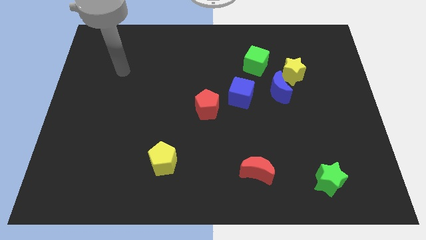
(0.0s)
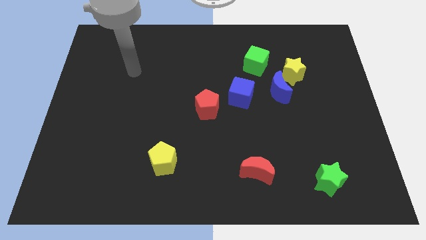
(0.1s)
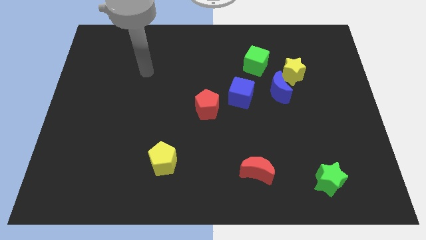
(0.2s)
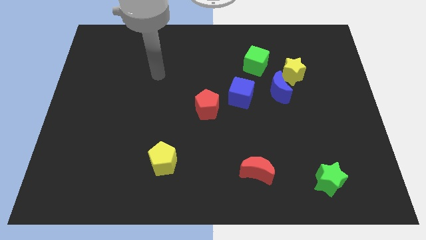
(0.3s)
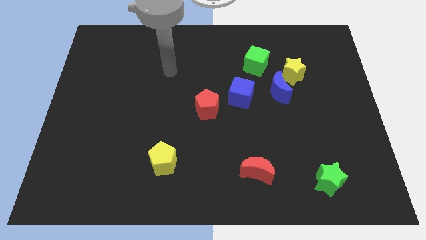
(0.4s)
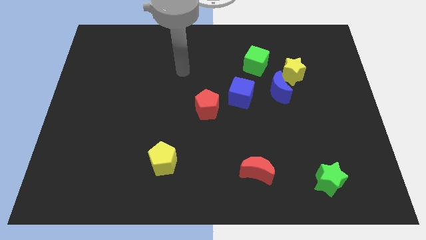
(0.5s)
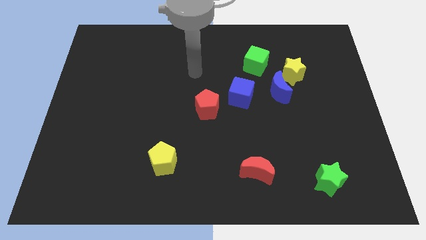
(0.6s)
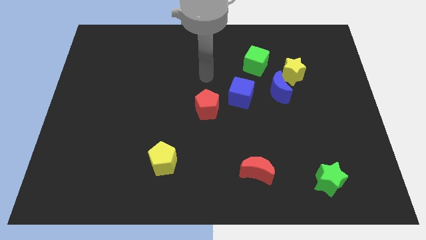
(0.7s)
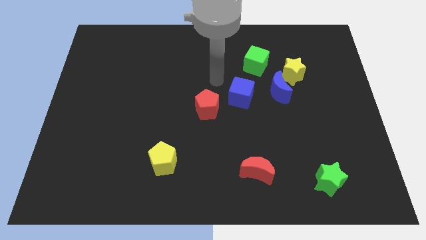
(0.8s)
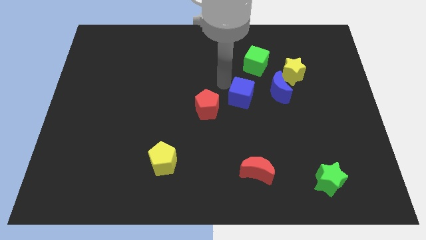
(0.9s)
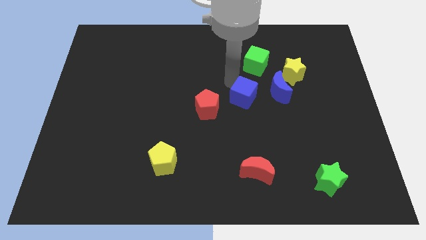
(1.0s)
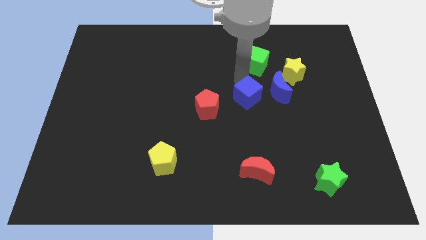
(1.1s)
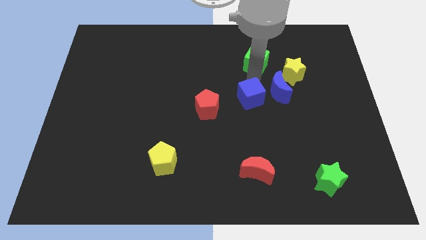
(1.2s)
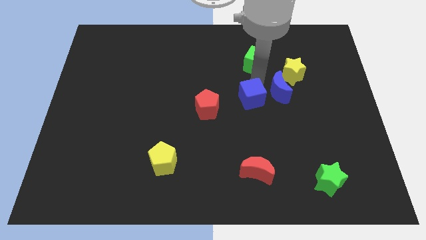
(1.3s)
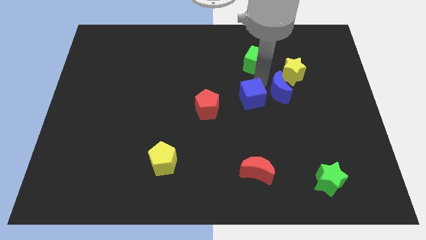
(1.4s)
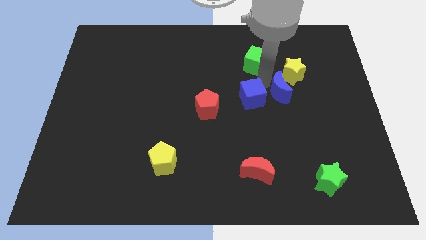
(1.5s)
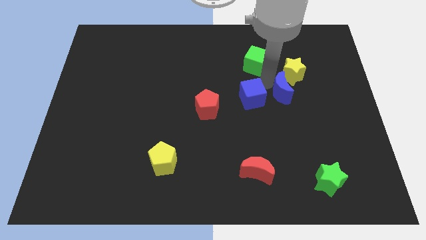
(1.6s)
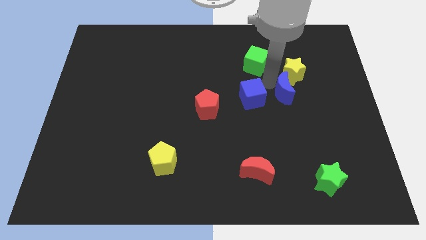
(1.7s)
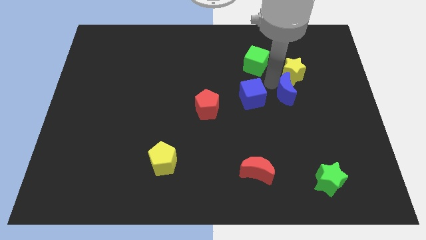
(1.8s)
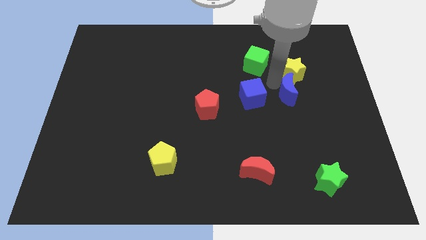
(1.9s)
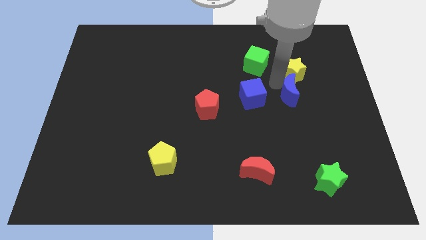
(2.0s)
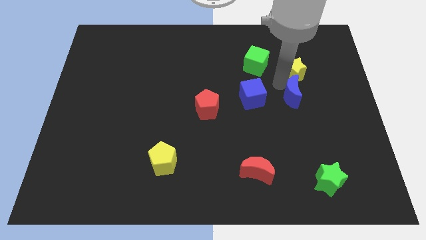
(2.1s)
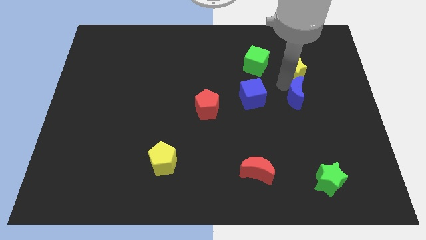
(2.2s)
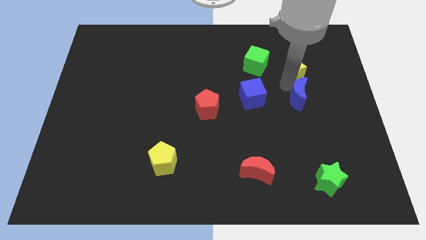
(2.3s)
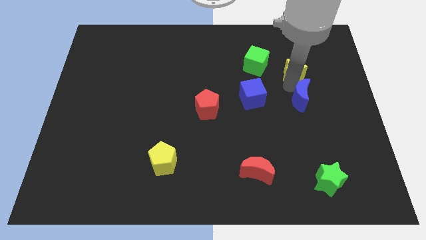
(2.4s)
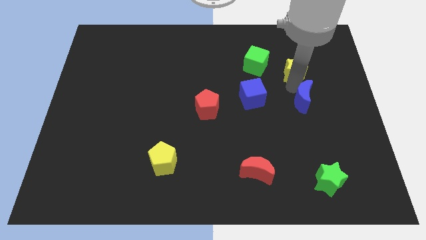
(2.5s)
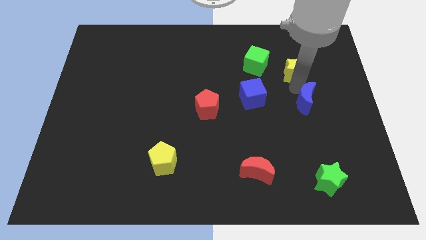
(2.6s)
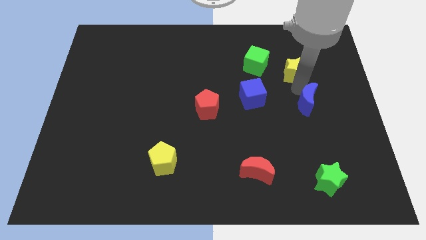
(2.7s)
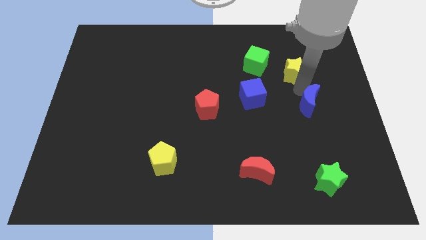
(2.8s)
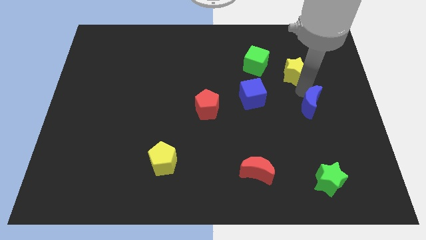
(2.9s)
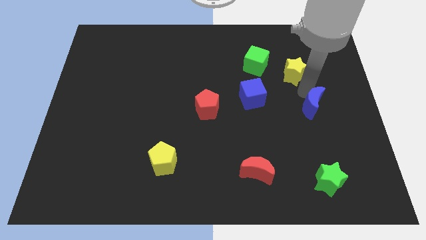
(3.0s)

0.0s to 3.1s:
pull the blue moon apart from the yellow star and blue cube

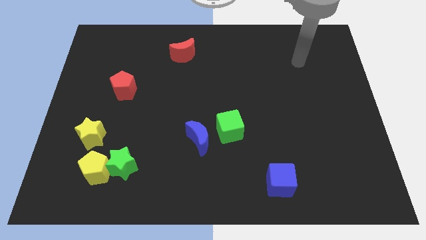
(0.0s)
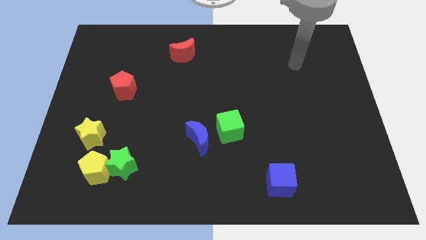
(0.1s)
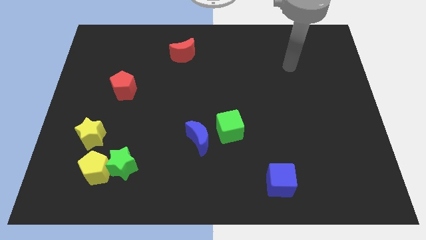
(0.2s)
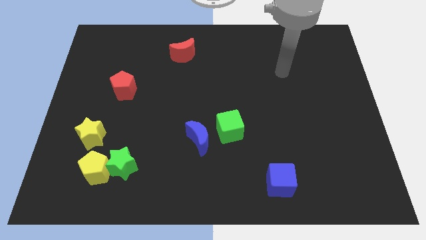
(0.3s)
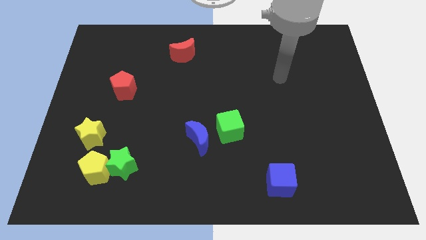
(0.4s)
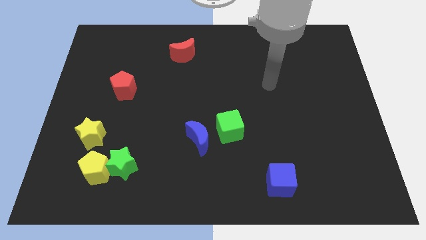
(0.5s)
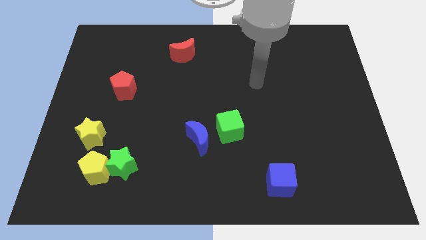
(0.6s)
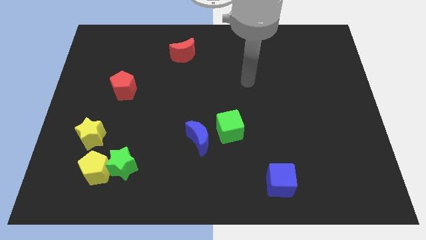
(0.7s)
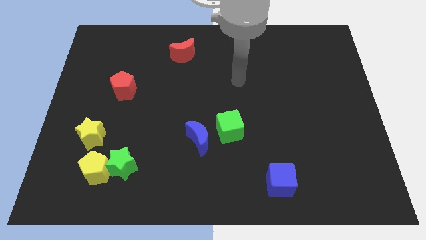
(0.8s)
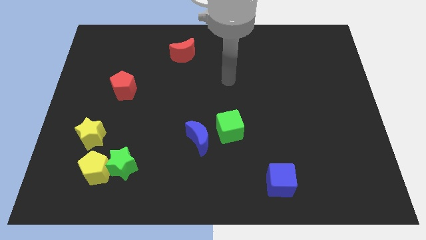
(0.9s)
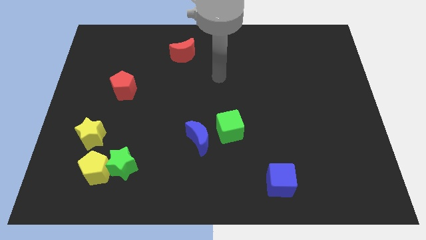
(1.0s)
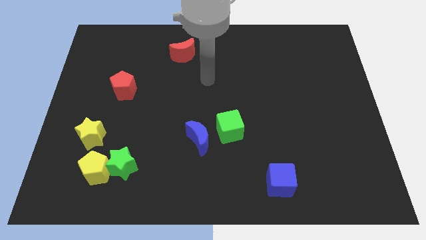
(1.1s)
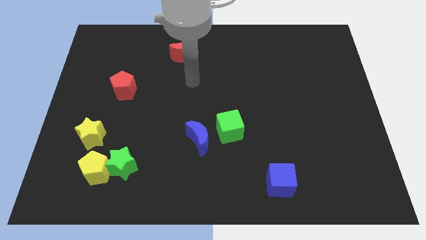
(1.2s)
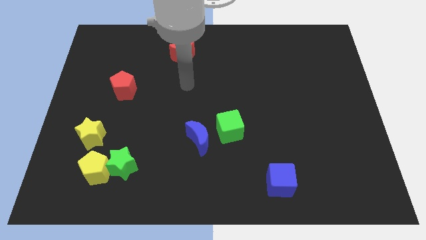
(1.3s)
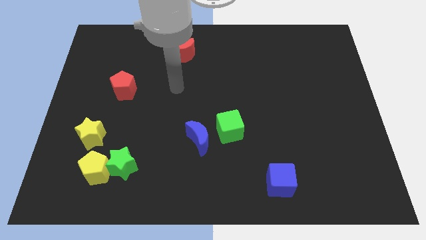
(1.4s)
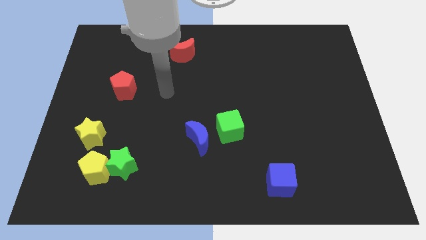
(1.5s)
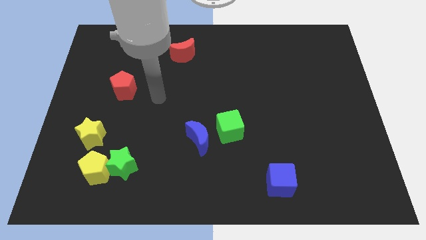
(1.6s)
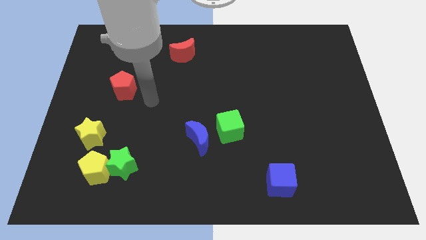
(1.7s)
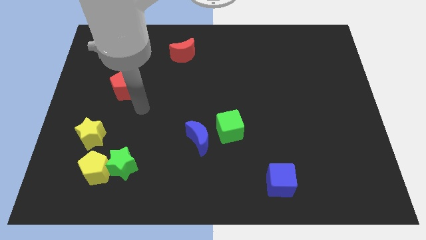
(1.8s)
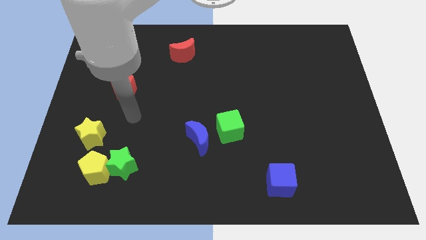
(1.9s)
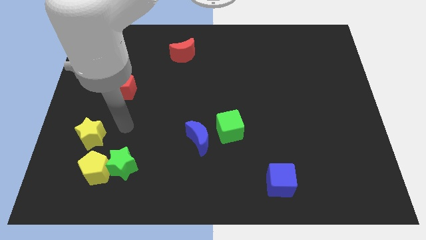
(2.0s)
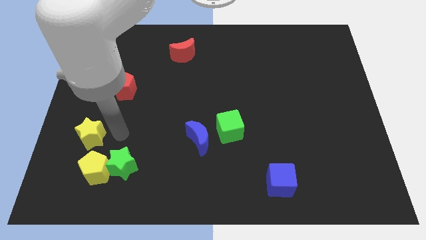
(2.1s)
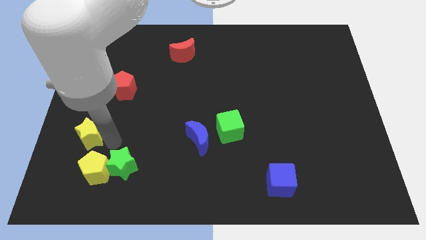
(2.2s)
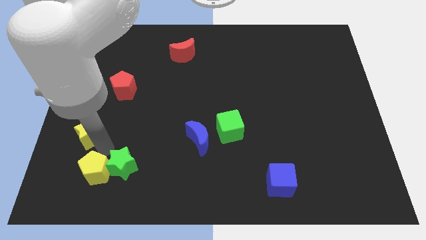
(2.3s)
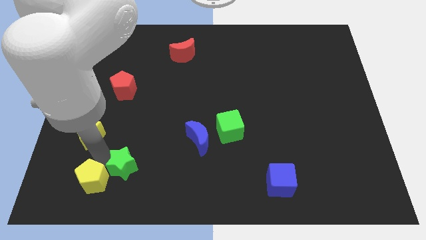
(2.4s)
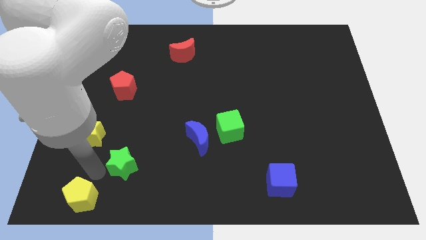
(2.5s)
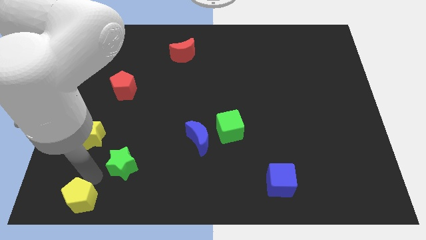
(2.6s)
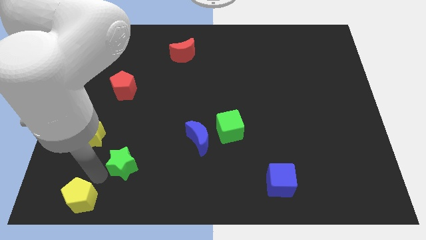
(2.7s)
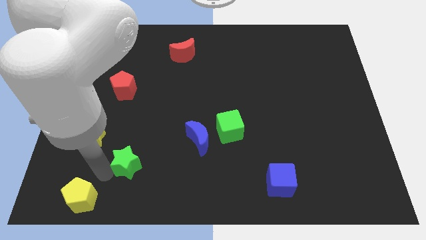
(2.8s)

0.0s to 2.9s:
move the green star away from the yellow pentagon

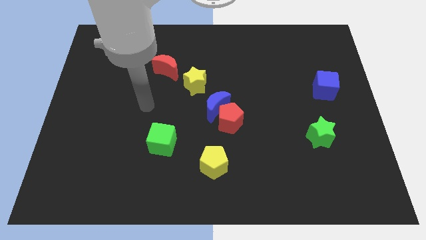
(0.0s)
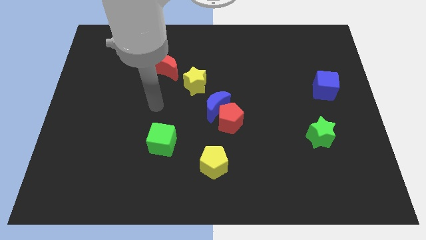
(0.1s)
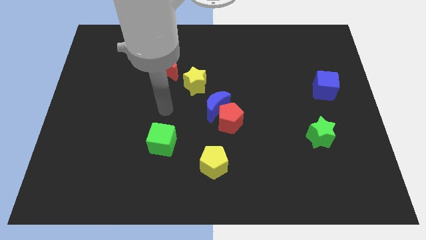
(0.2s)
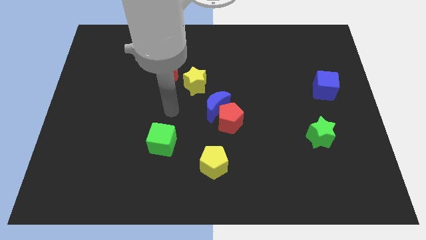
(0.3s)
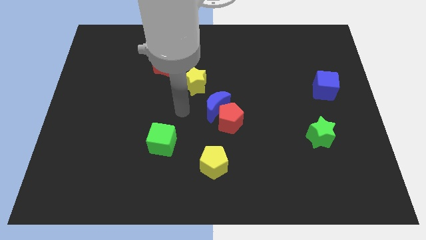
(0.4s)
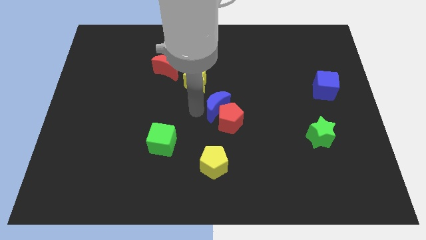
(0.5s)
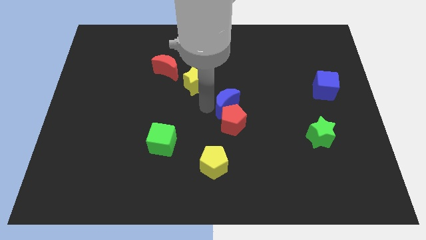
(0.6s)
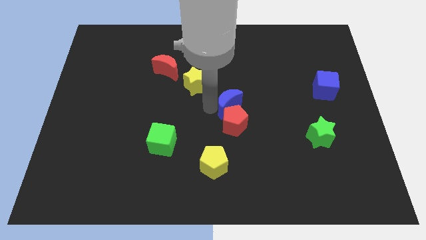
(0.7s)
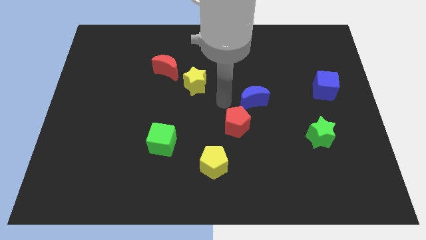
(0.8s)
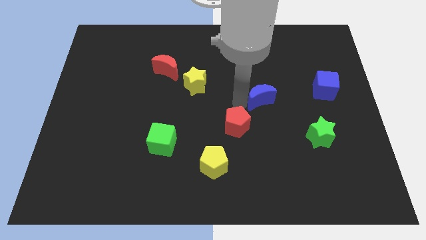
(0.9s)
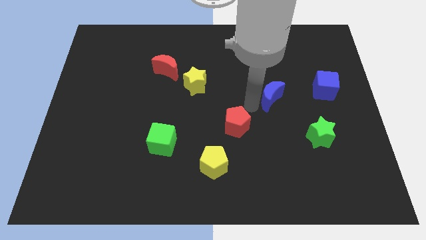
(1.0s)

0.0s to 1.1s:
move the red pentagon away from the blue moon

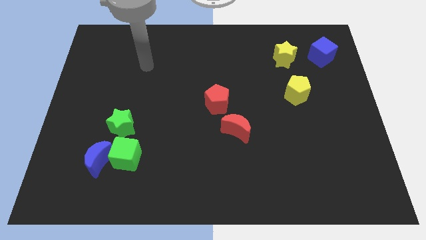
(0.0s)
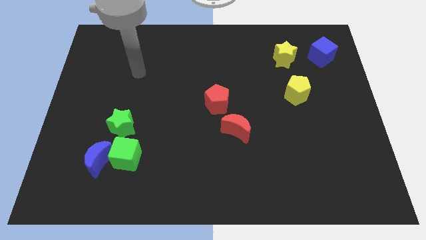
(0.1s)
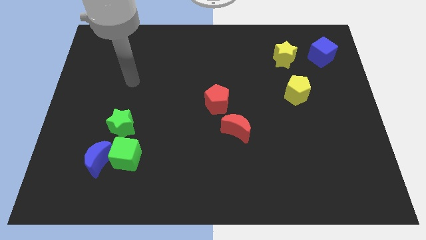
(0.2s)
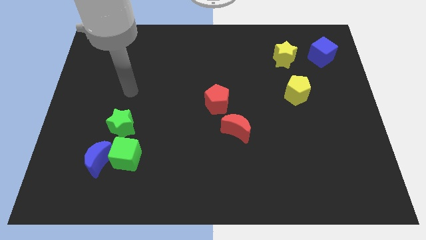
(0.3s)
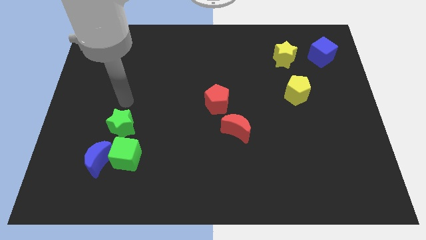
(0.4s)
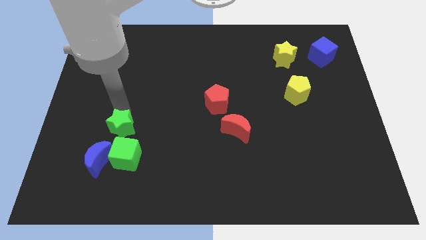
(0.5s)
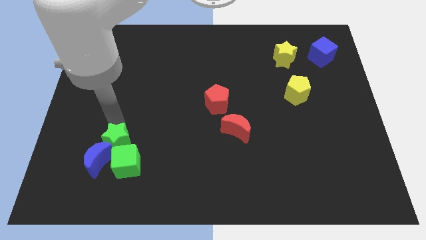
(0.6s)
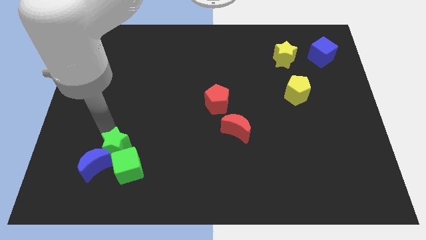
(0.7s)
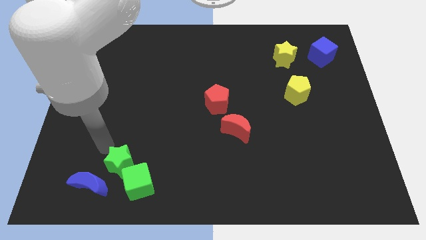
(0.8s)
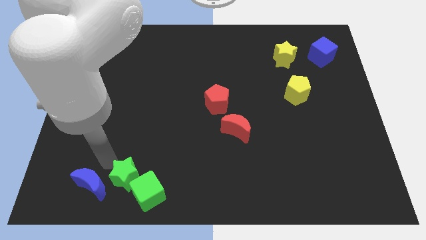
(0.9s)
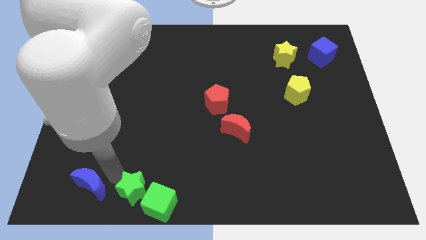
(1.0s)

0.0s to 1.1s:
separate the green cube from the blue moon and green star

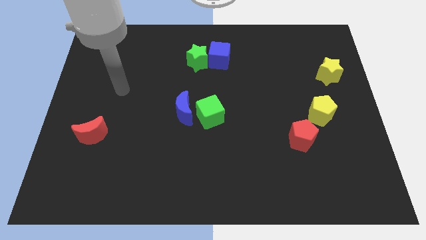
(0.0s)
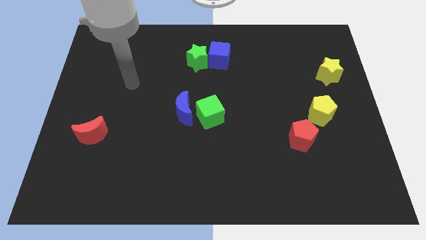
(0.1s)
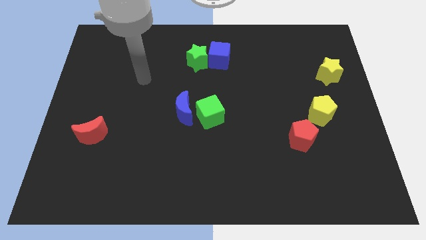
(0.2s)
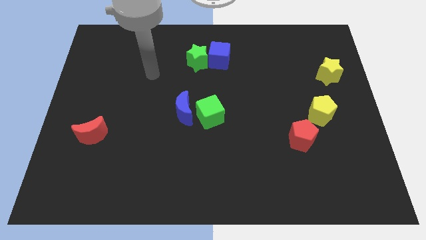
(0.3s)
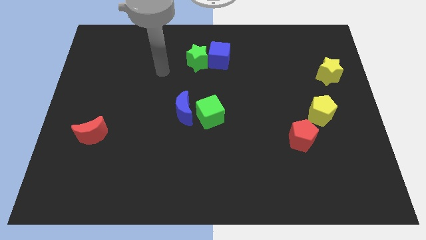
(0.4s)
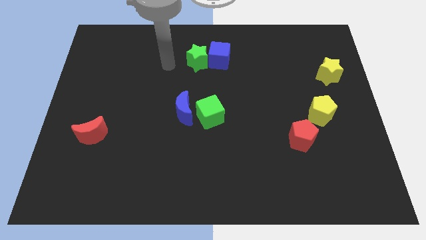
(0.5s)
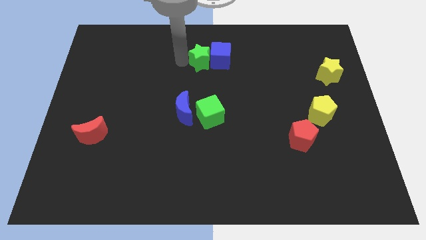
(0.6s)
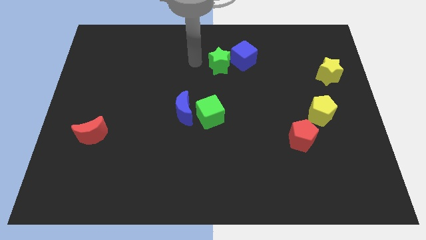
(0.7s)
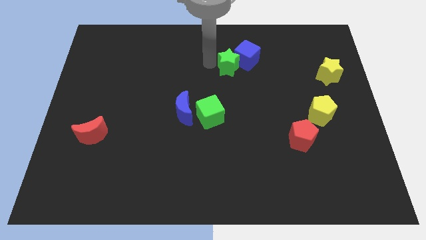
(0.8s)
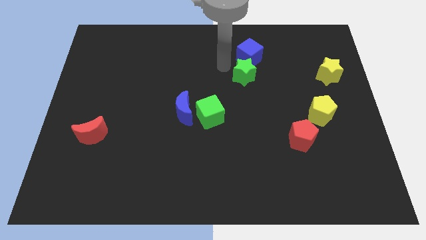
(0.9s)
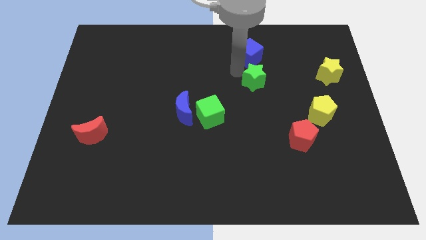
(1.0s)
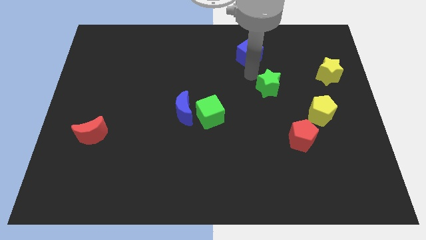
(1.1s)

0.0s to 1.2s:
move the blue cube away from the green star
